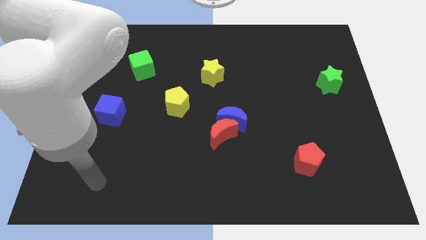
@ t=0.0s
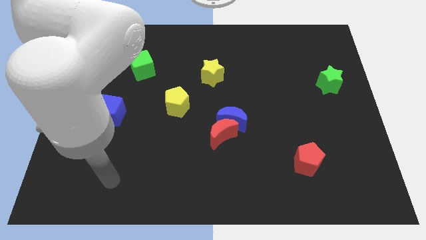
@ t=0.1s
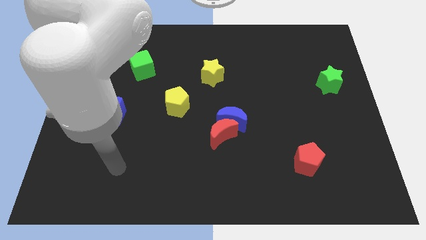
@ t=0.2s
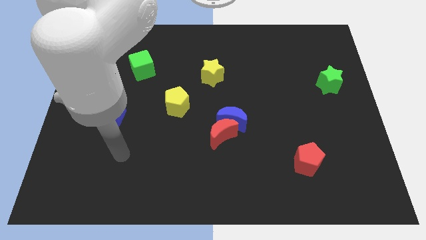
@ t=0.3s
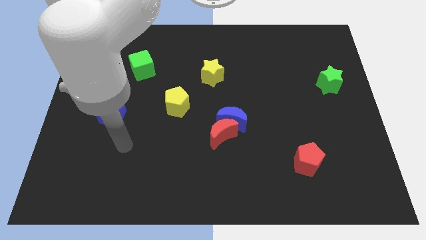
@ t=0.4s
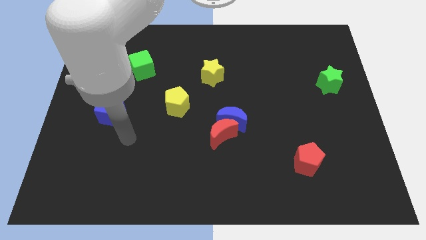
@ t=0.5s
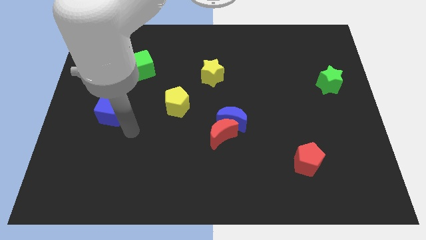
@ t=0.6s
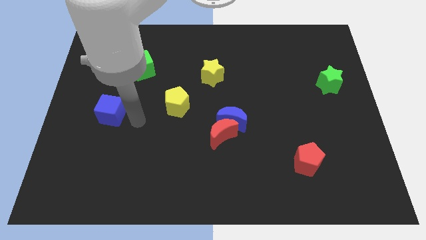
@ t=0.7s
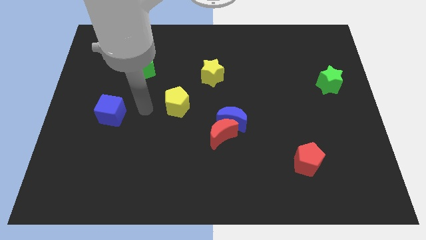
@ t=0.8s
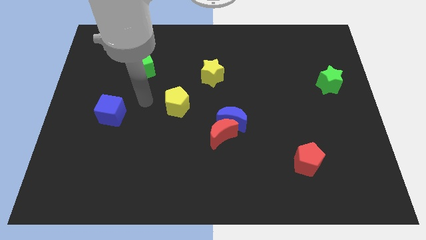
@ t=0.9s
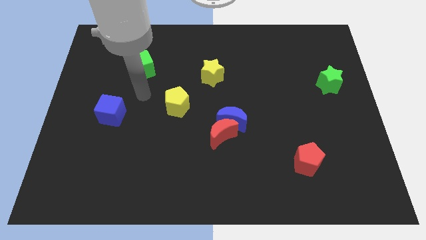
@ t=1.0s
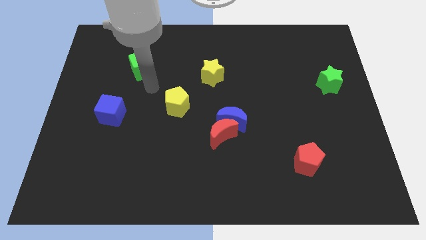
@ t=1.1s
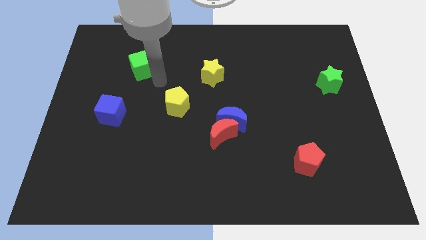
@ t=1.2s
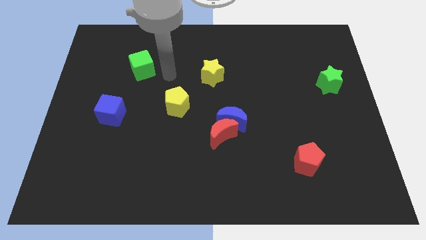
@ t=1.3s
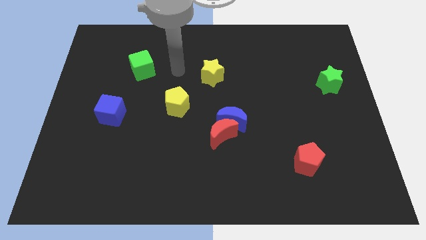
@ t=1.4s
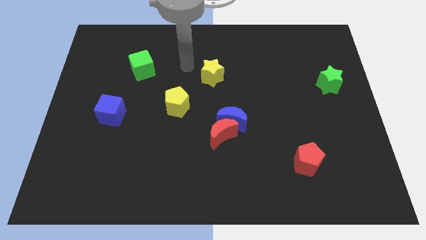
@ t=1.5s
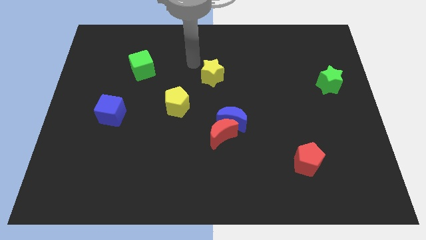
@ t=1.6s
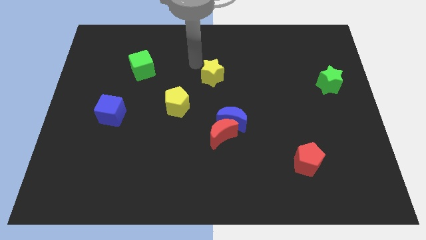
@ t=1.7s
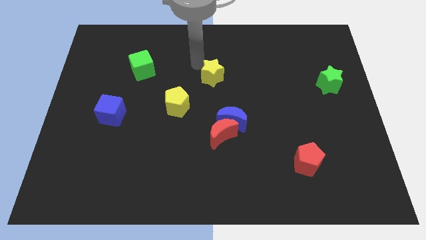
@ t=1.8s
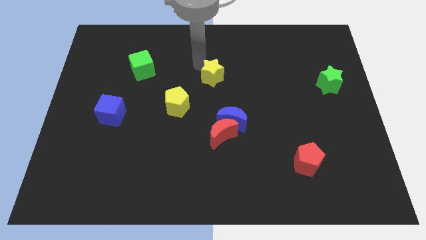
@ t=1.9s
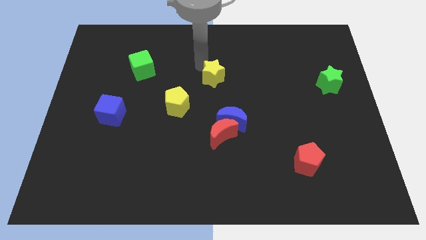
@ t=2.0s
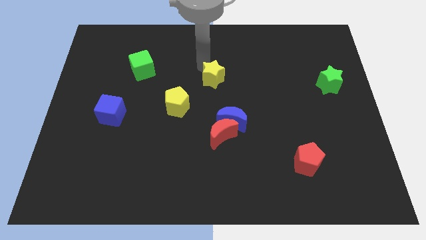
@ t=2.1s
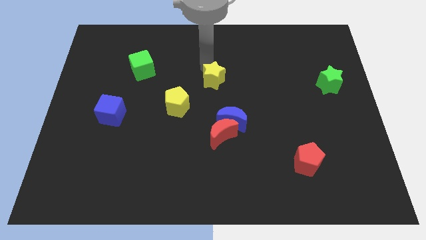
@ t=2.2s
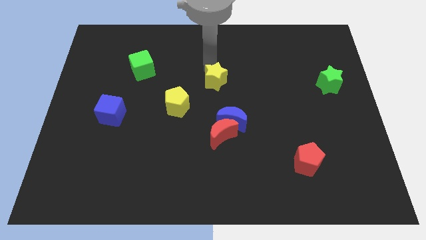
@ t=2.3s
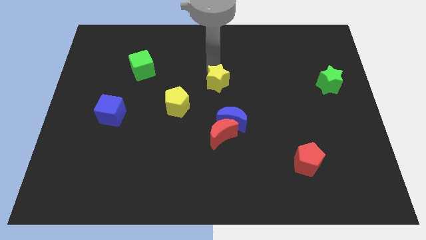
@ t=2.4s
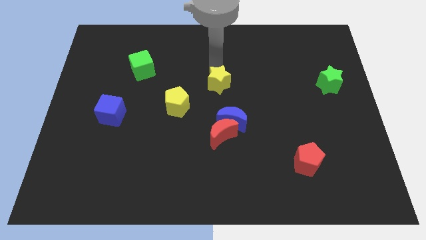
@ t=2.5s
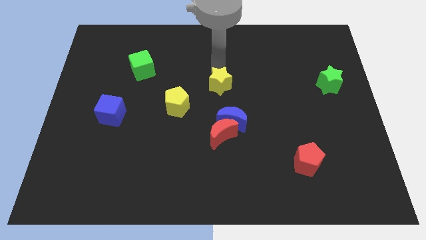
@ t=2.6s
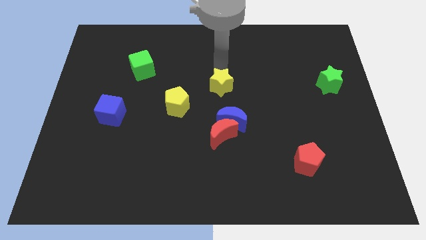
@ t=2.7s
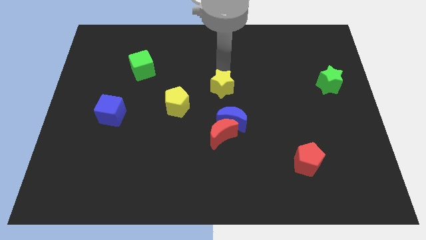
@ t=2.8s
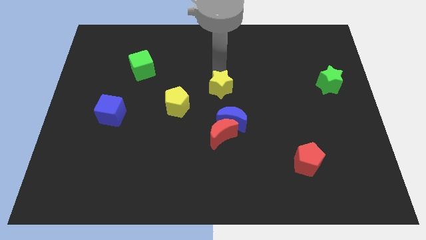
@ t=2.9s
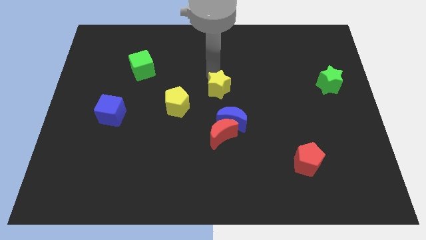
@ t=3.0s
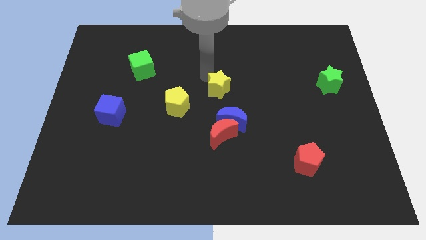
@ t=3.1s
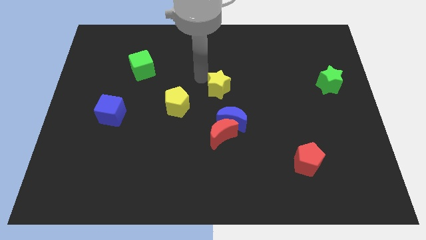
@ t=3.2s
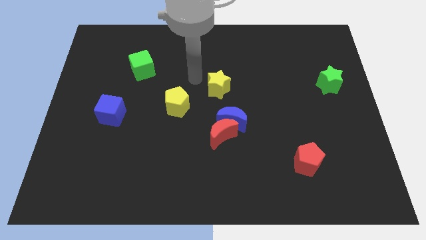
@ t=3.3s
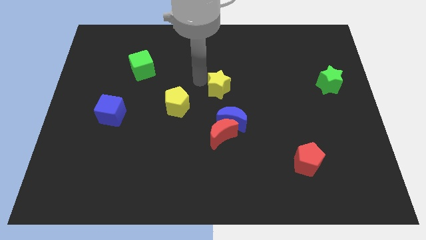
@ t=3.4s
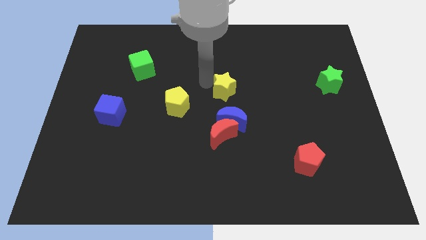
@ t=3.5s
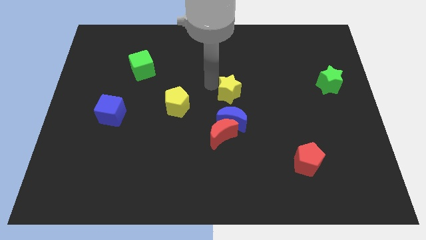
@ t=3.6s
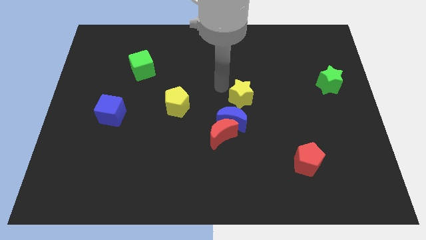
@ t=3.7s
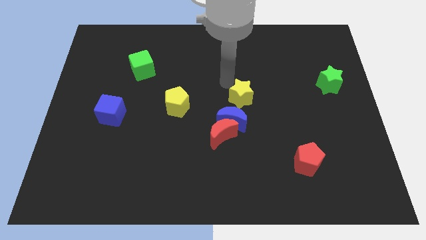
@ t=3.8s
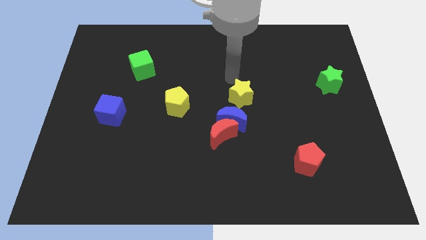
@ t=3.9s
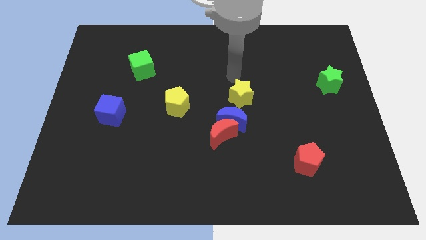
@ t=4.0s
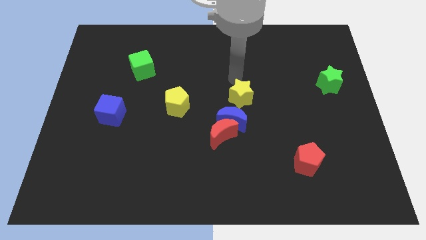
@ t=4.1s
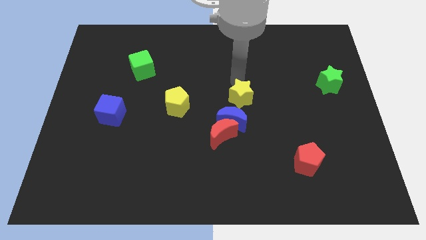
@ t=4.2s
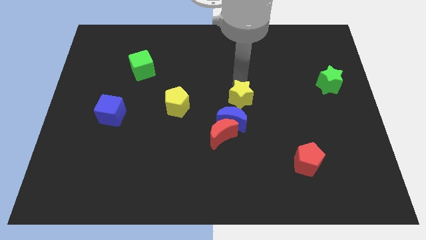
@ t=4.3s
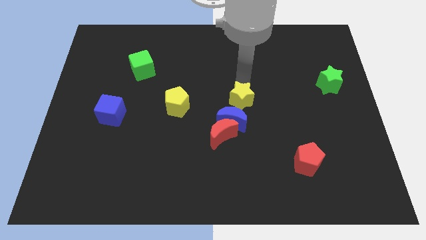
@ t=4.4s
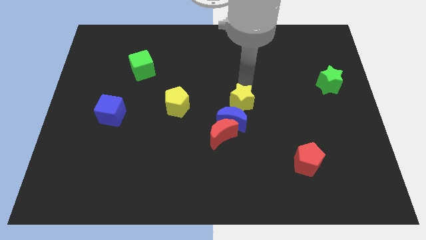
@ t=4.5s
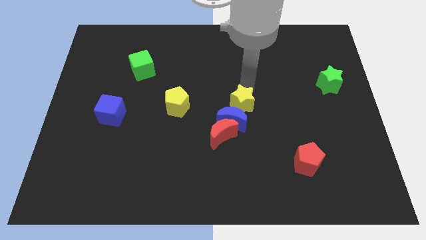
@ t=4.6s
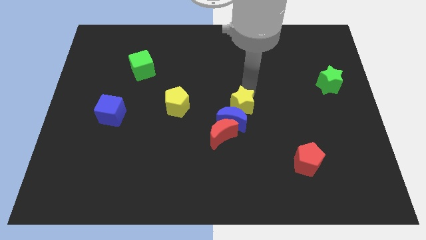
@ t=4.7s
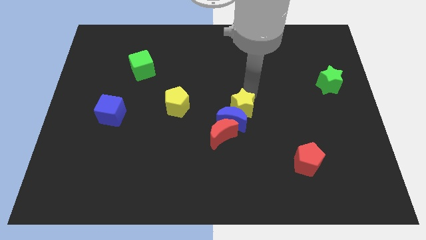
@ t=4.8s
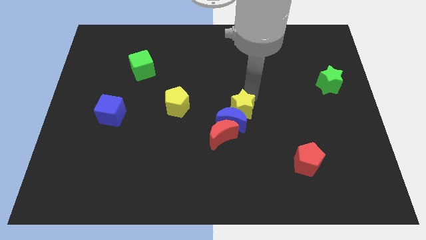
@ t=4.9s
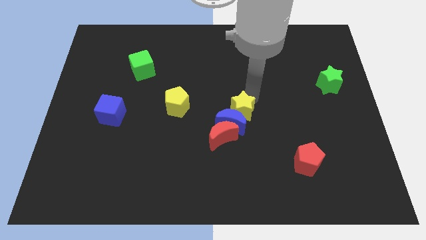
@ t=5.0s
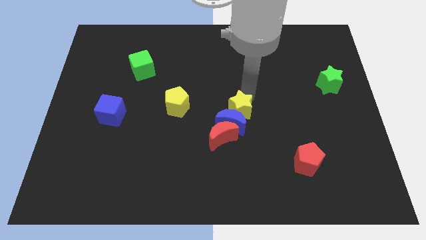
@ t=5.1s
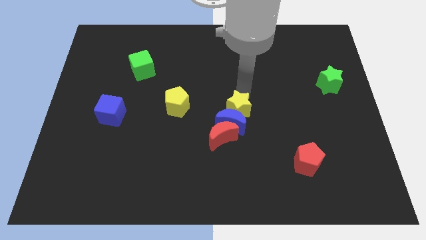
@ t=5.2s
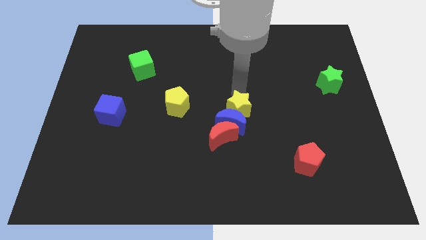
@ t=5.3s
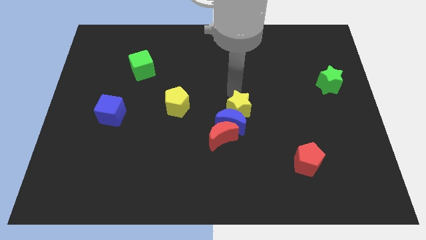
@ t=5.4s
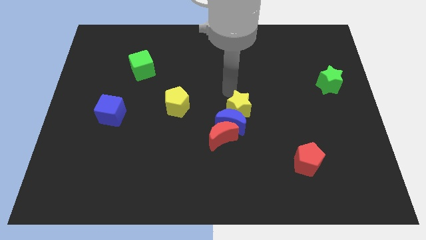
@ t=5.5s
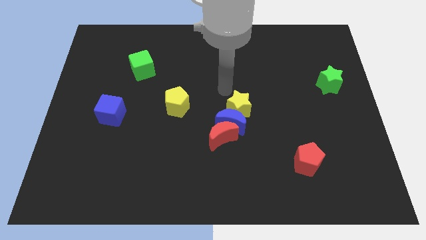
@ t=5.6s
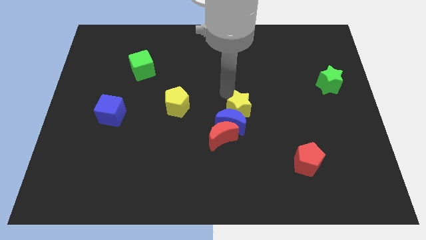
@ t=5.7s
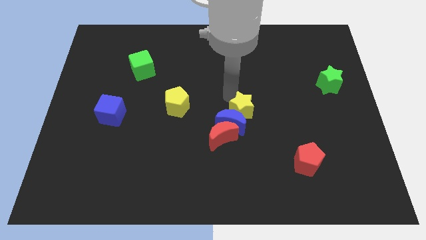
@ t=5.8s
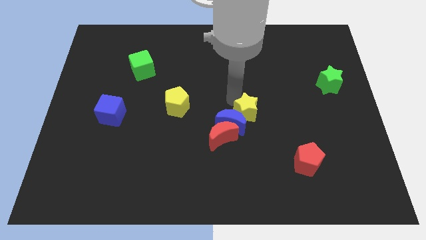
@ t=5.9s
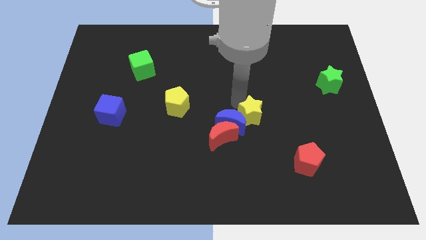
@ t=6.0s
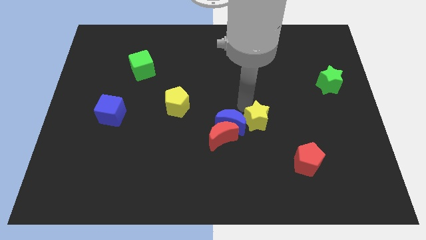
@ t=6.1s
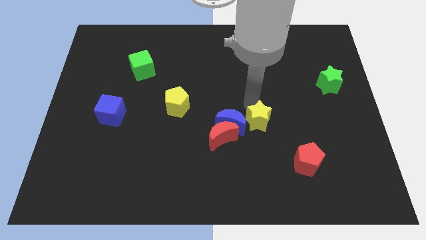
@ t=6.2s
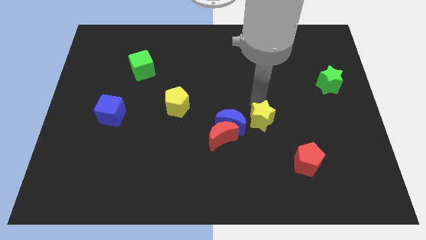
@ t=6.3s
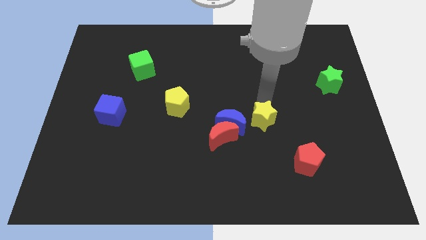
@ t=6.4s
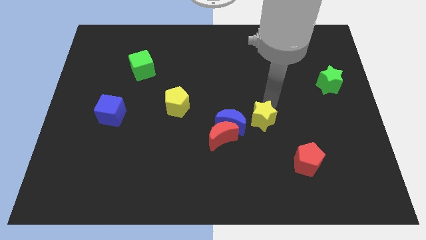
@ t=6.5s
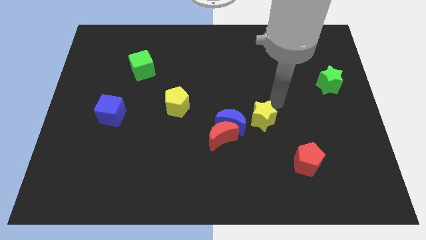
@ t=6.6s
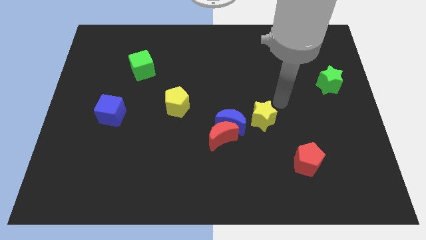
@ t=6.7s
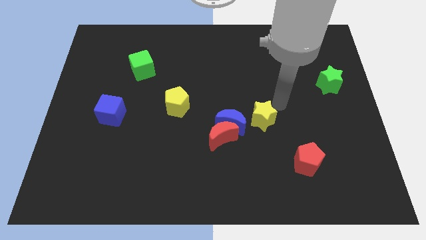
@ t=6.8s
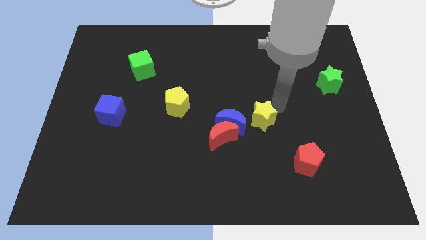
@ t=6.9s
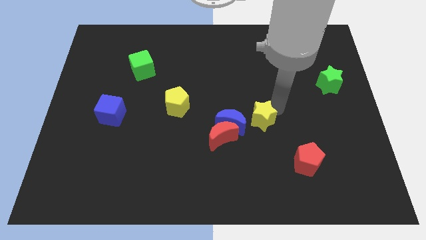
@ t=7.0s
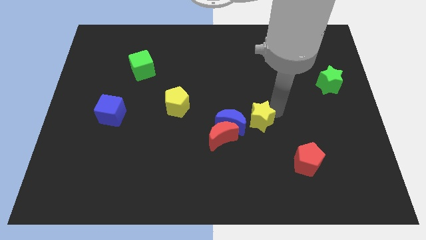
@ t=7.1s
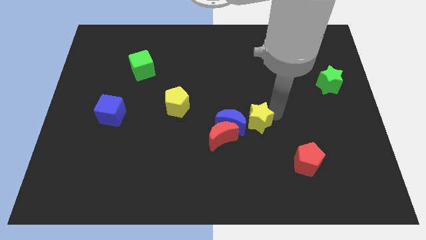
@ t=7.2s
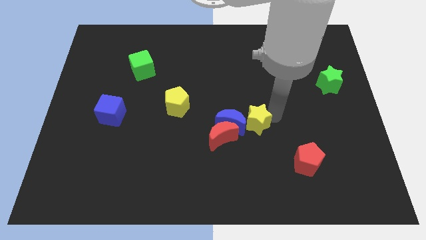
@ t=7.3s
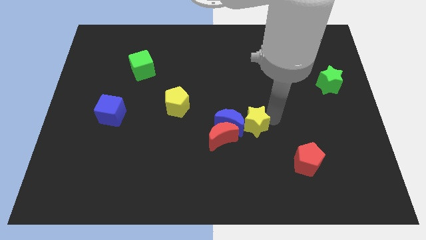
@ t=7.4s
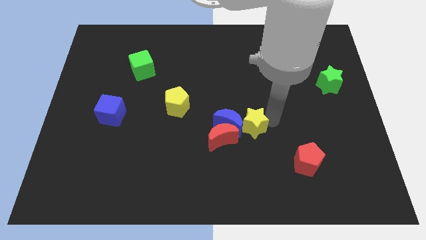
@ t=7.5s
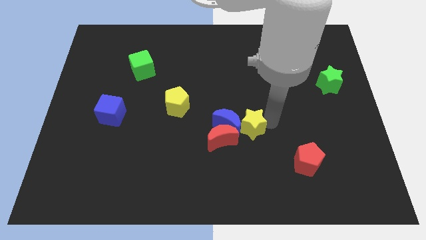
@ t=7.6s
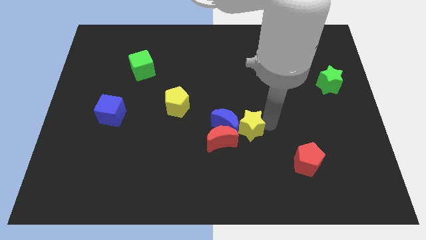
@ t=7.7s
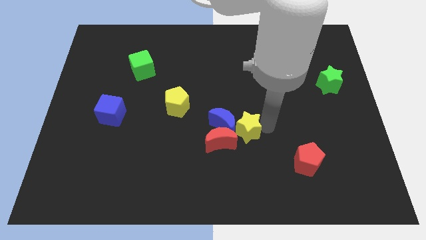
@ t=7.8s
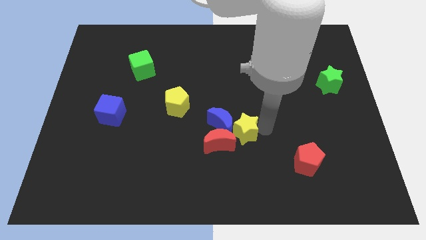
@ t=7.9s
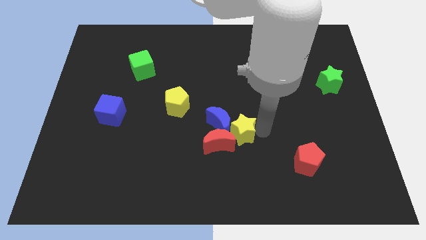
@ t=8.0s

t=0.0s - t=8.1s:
move the yellow star to the red moon
